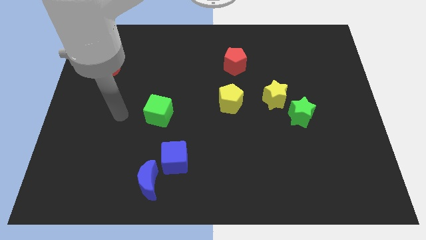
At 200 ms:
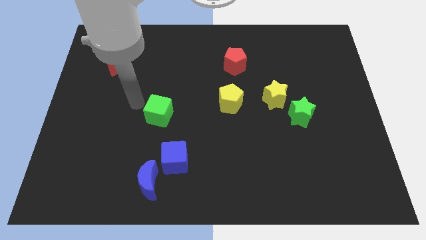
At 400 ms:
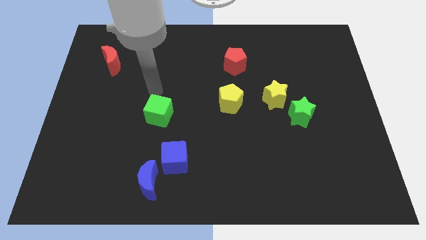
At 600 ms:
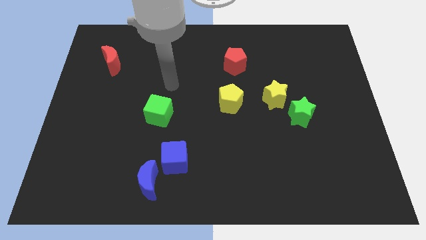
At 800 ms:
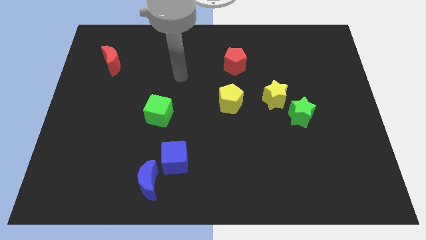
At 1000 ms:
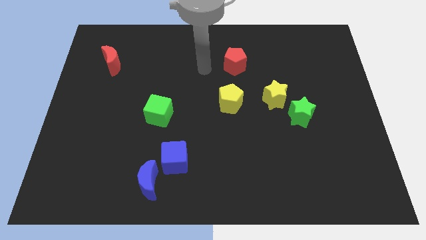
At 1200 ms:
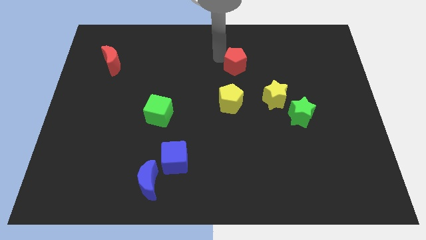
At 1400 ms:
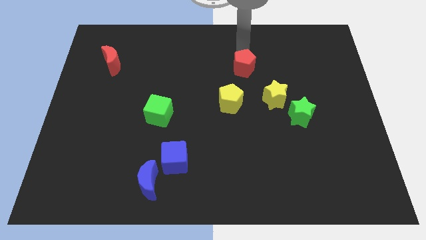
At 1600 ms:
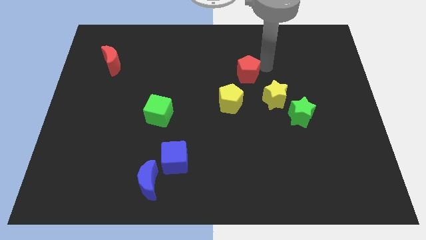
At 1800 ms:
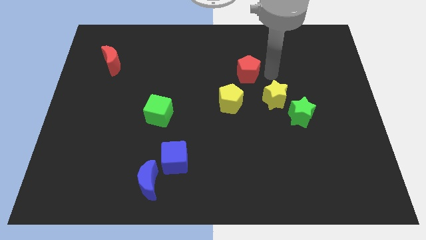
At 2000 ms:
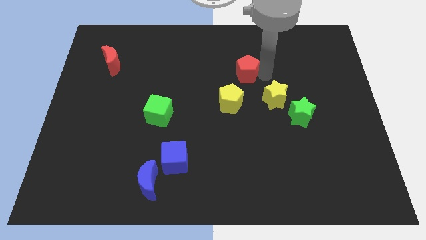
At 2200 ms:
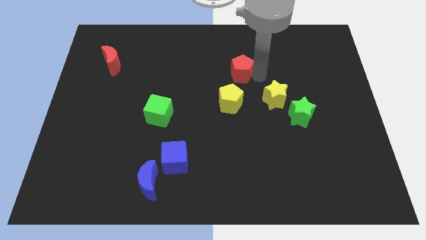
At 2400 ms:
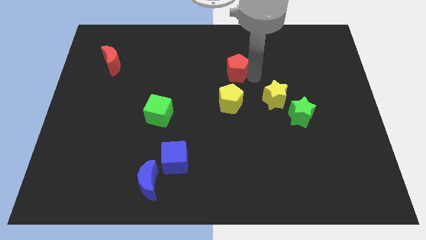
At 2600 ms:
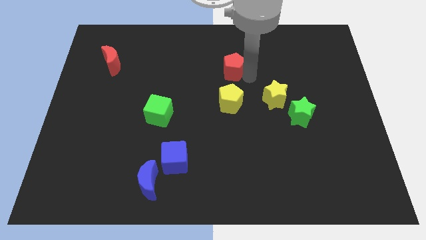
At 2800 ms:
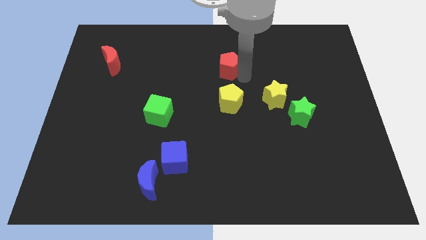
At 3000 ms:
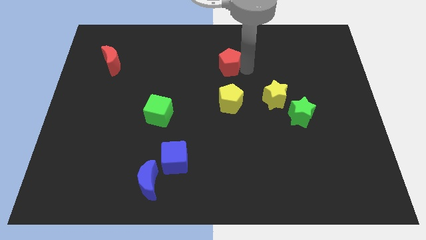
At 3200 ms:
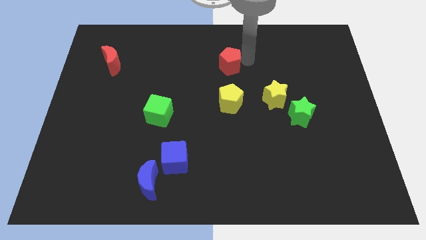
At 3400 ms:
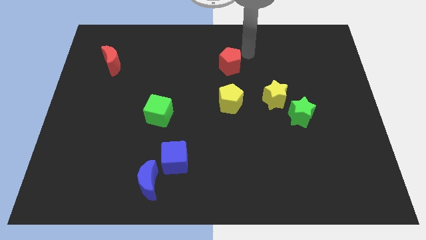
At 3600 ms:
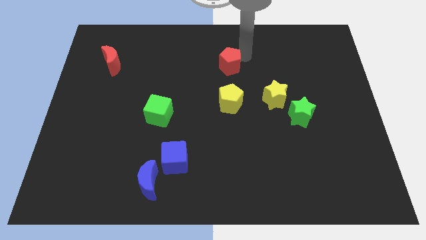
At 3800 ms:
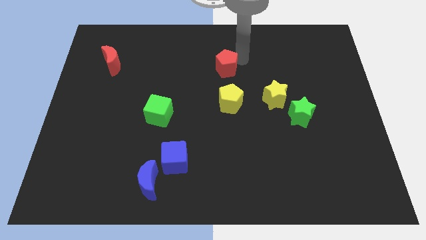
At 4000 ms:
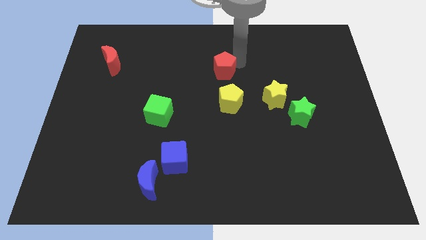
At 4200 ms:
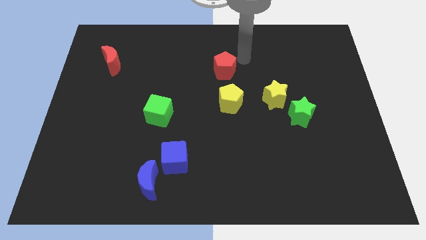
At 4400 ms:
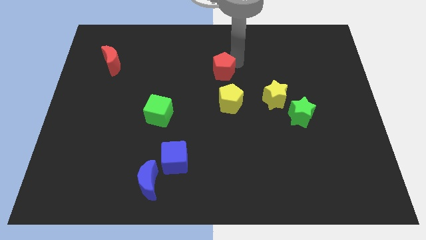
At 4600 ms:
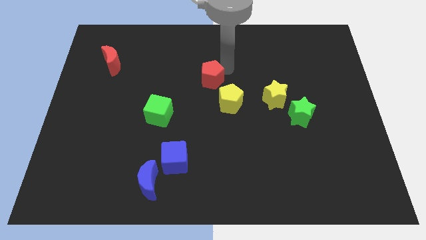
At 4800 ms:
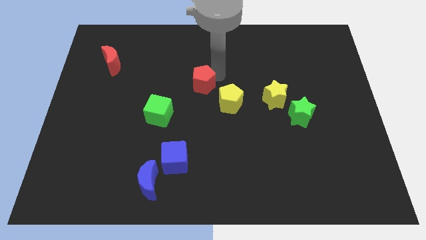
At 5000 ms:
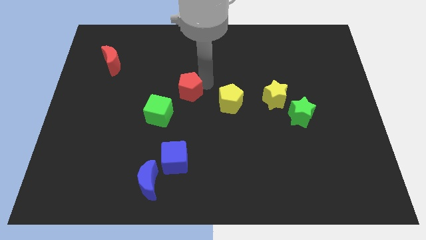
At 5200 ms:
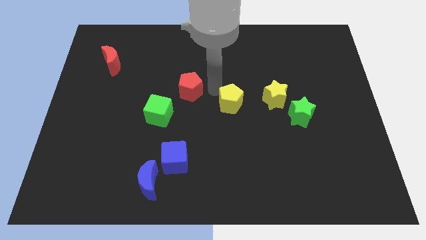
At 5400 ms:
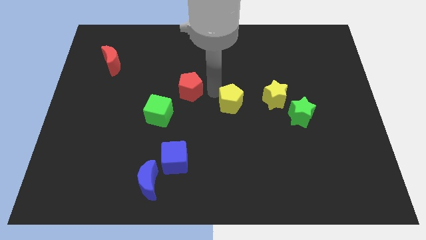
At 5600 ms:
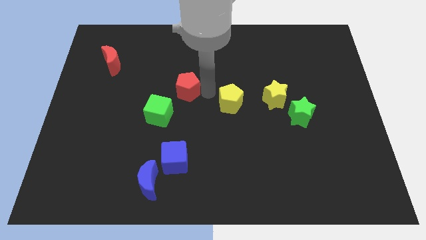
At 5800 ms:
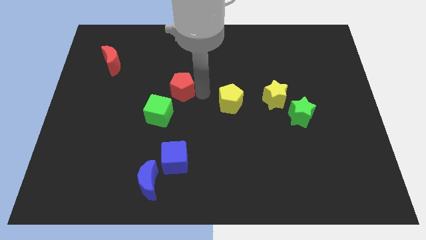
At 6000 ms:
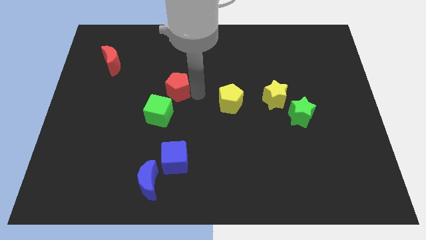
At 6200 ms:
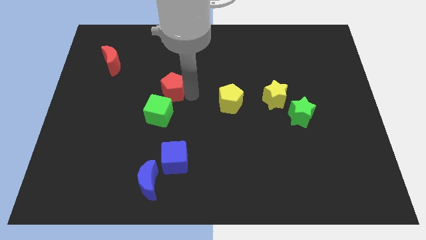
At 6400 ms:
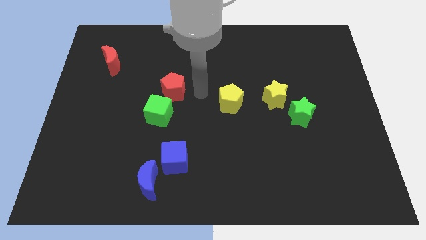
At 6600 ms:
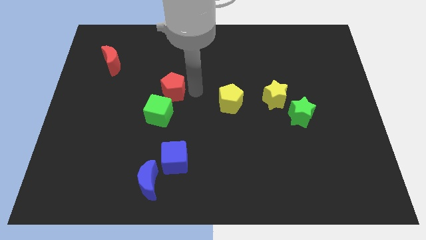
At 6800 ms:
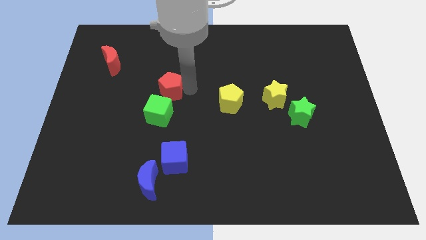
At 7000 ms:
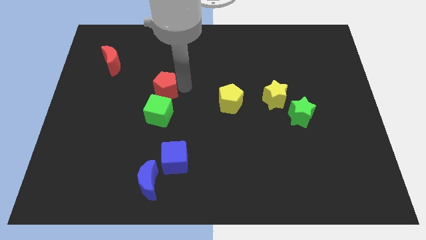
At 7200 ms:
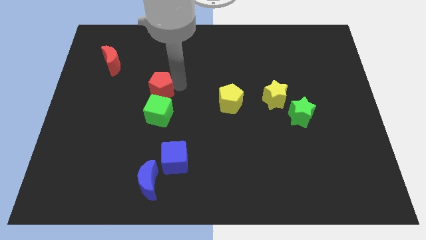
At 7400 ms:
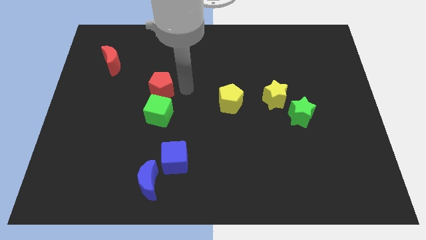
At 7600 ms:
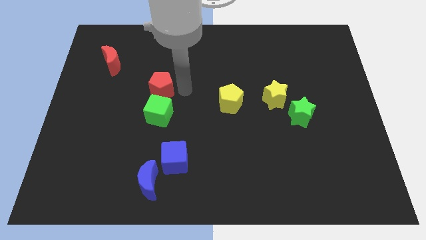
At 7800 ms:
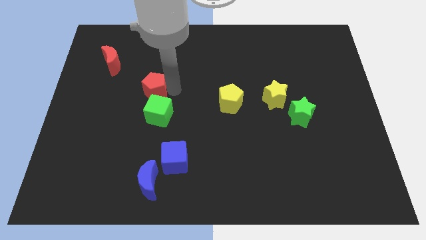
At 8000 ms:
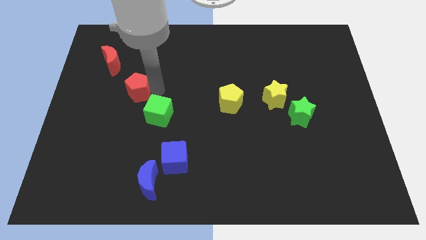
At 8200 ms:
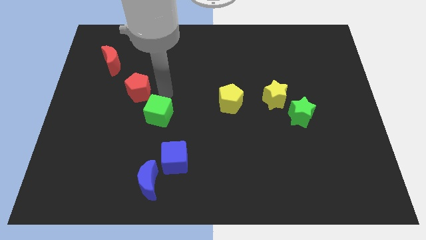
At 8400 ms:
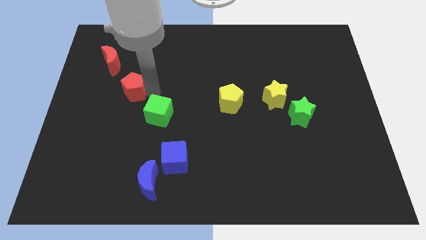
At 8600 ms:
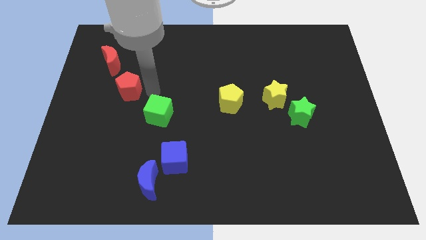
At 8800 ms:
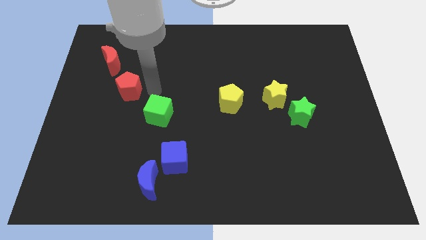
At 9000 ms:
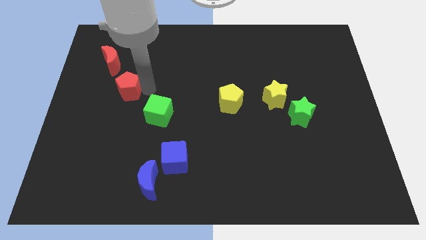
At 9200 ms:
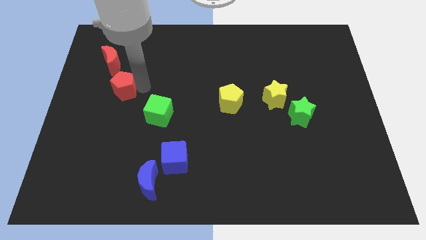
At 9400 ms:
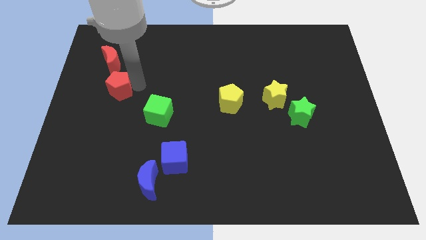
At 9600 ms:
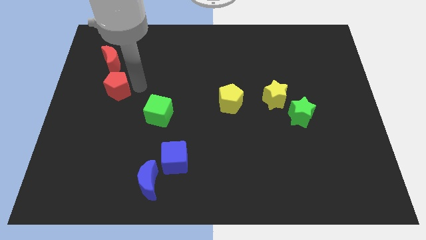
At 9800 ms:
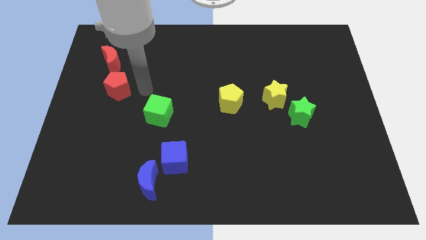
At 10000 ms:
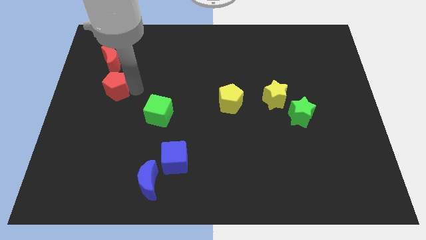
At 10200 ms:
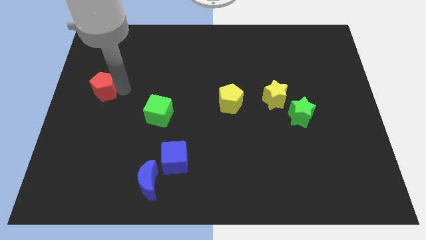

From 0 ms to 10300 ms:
push the red pentagon to the left side

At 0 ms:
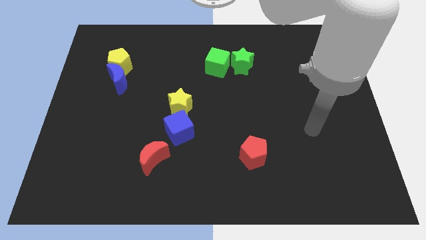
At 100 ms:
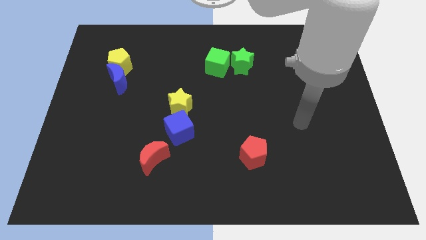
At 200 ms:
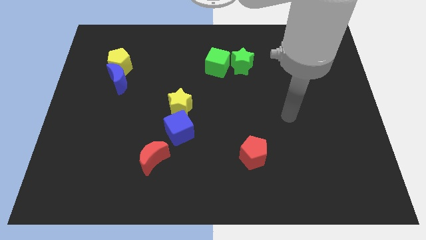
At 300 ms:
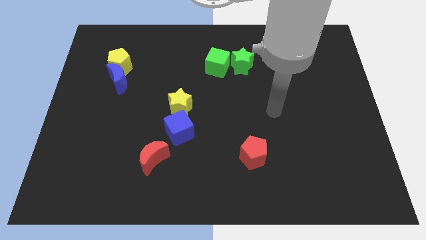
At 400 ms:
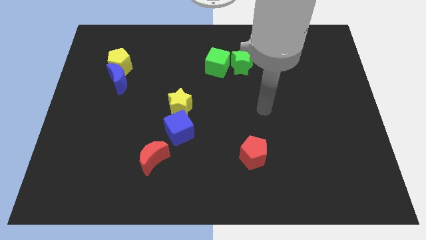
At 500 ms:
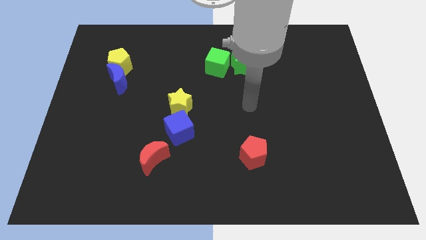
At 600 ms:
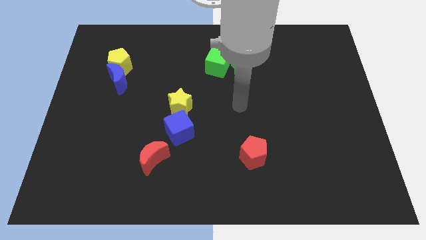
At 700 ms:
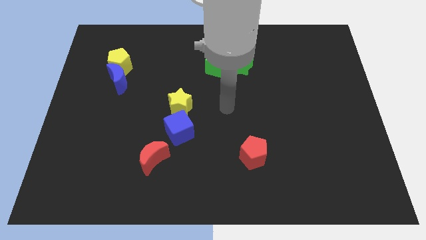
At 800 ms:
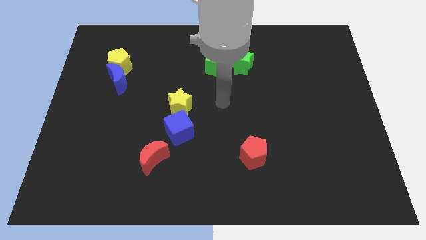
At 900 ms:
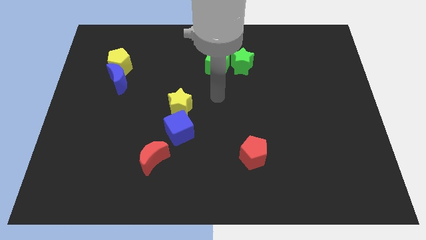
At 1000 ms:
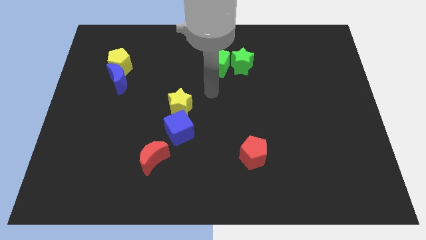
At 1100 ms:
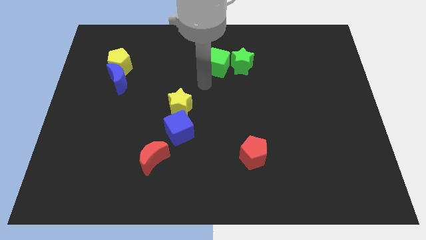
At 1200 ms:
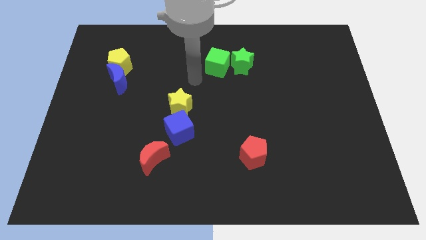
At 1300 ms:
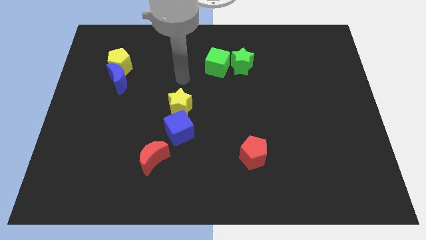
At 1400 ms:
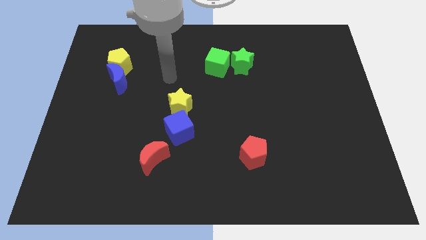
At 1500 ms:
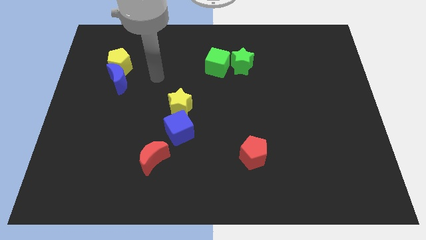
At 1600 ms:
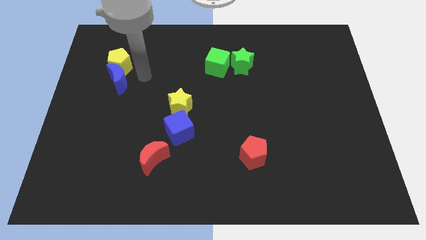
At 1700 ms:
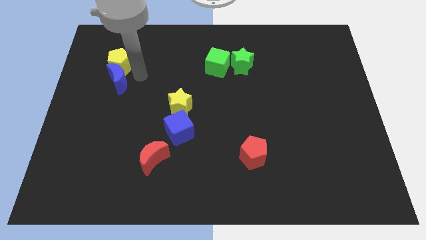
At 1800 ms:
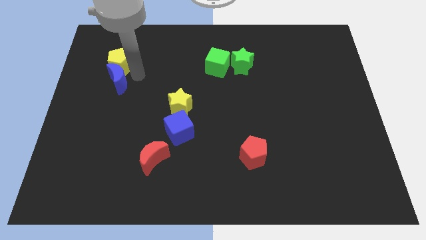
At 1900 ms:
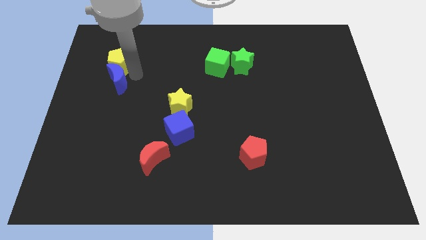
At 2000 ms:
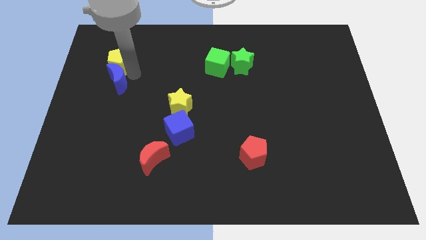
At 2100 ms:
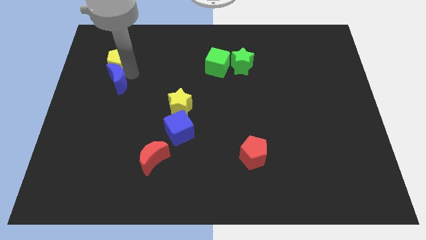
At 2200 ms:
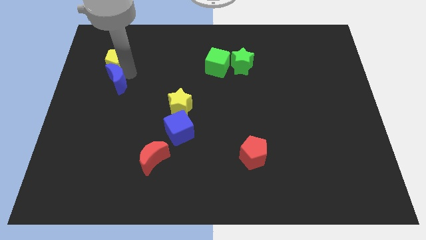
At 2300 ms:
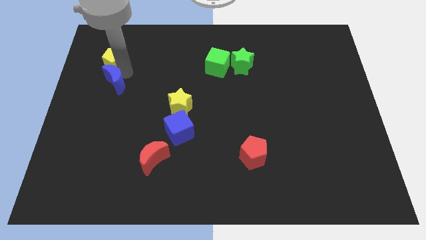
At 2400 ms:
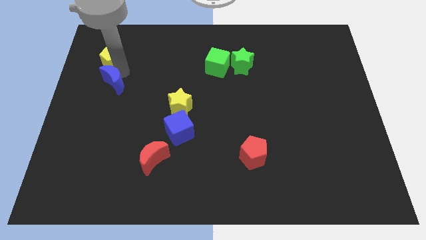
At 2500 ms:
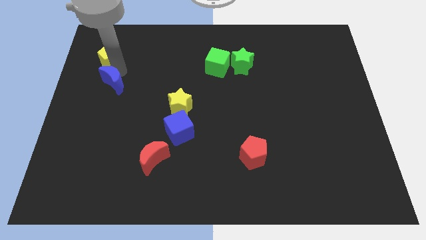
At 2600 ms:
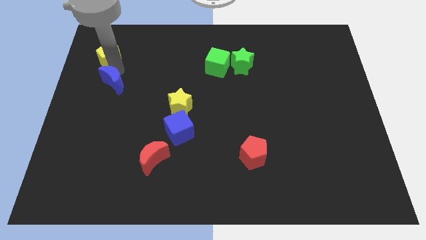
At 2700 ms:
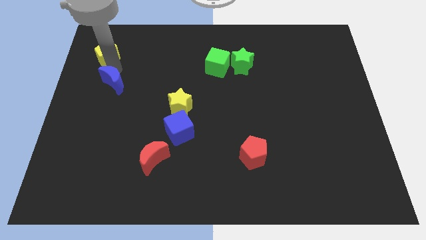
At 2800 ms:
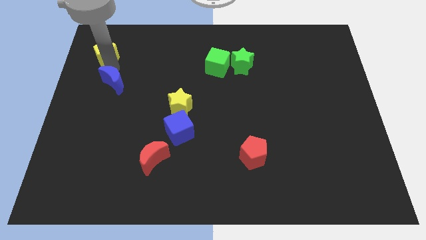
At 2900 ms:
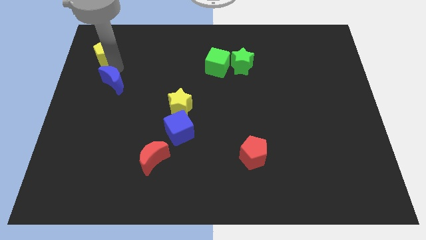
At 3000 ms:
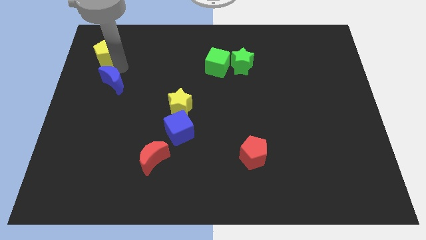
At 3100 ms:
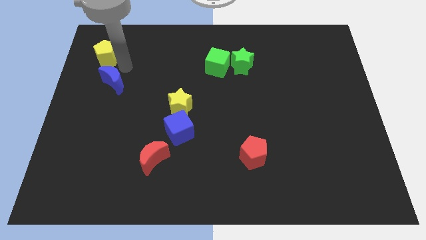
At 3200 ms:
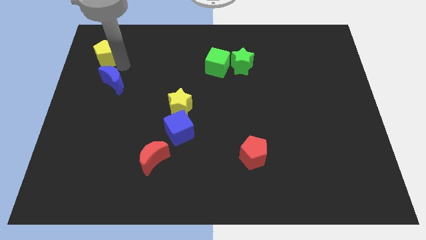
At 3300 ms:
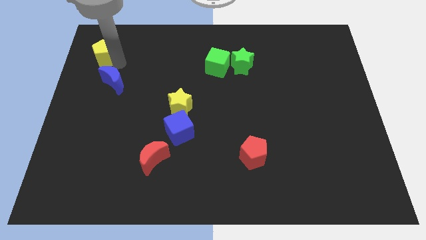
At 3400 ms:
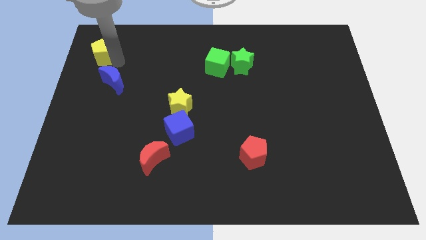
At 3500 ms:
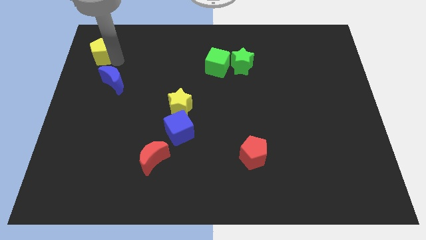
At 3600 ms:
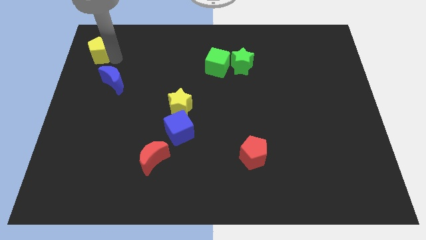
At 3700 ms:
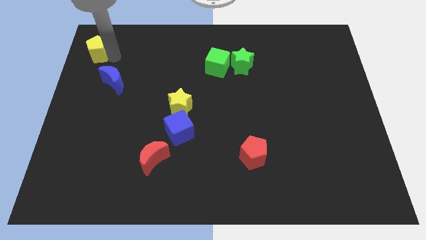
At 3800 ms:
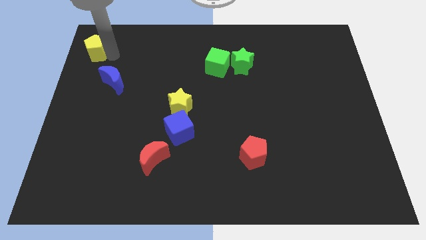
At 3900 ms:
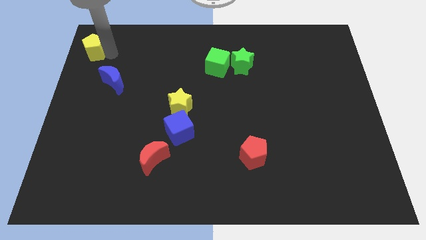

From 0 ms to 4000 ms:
move the yellow pentagon to the upper left corner
